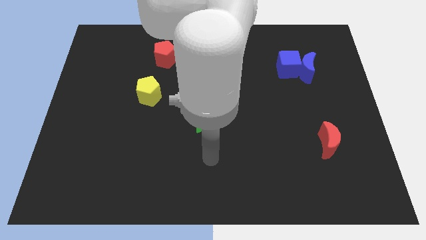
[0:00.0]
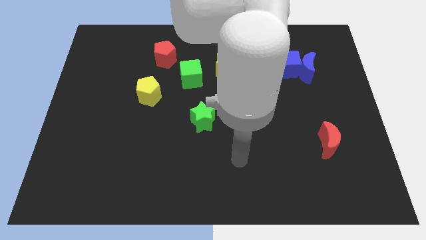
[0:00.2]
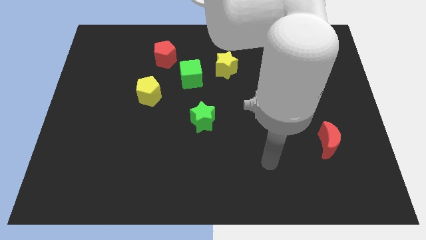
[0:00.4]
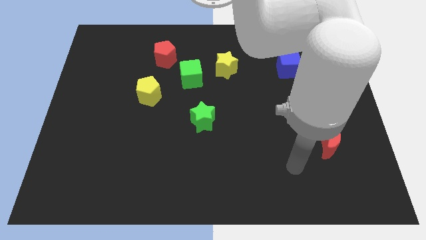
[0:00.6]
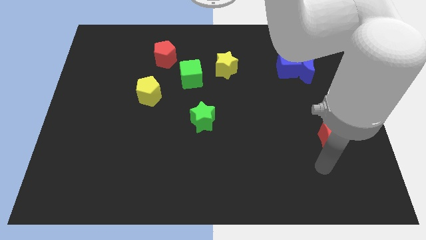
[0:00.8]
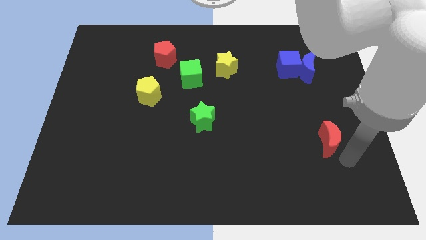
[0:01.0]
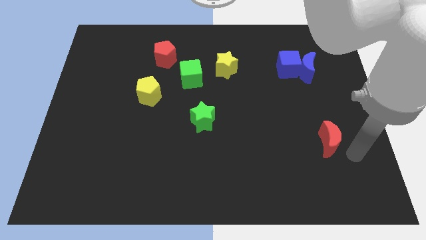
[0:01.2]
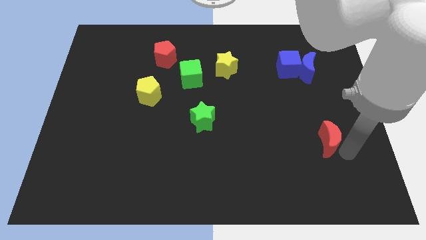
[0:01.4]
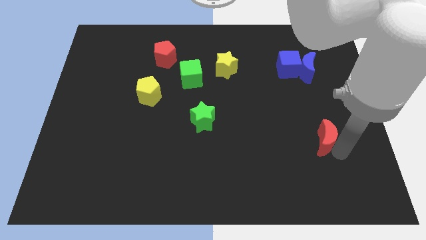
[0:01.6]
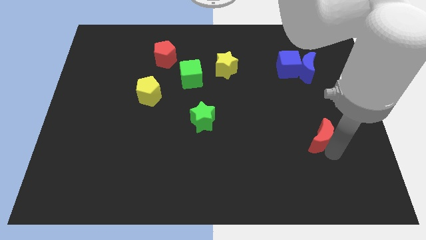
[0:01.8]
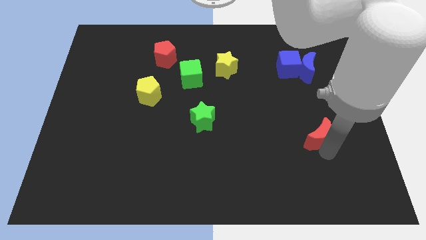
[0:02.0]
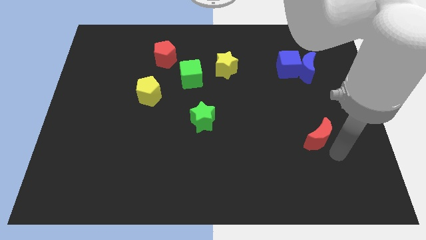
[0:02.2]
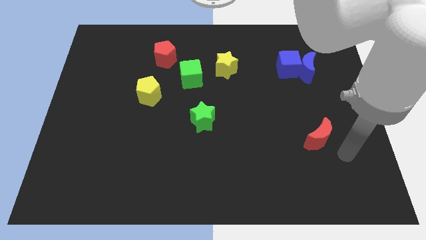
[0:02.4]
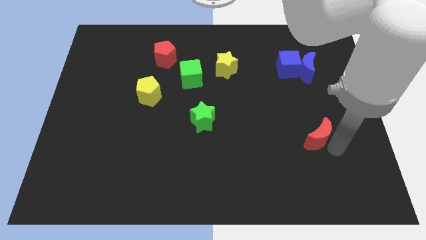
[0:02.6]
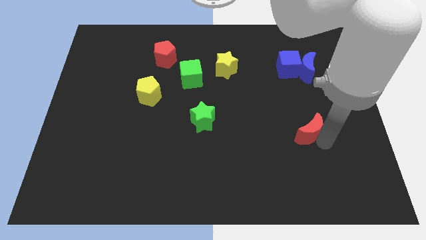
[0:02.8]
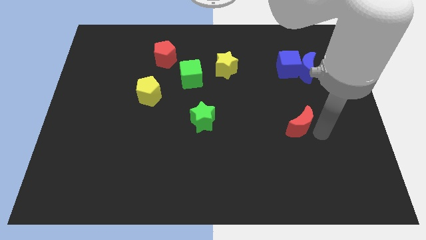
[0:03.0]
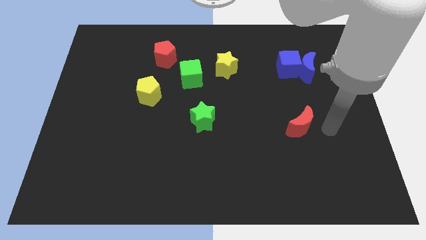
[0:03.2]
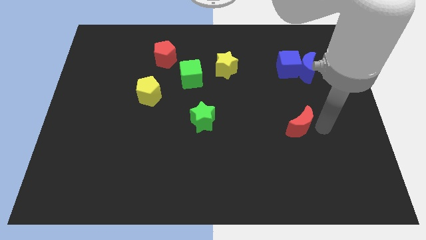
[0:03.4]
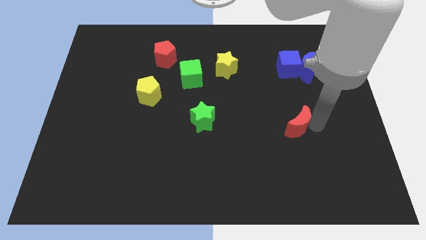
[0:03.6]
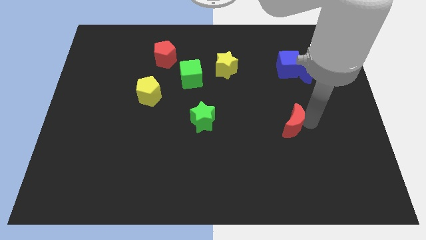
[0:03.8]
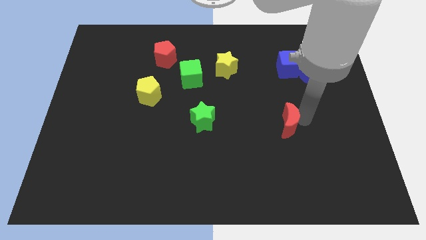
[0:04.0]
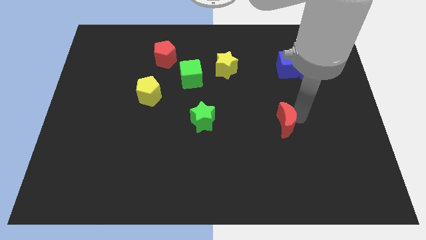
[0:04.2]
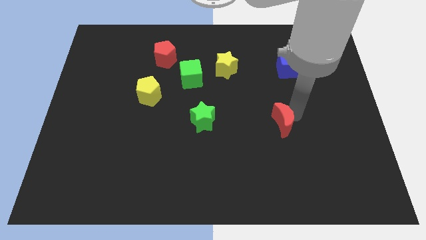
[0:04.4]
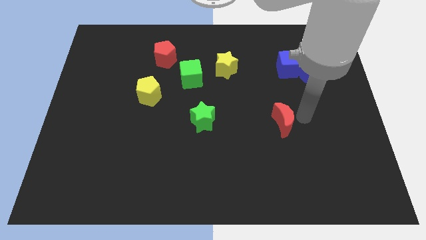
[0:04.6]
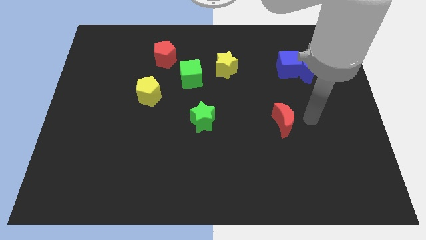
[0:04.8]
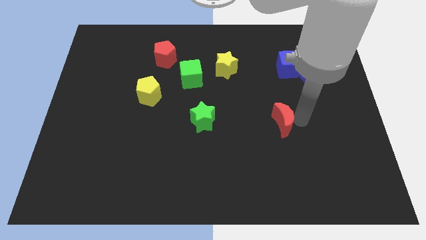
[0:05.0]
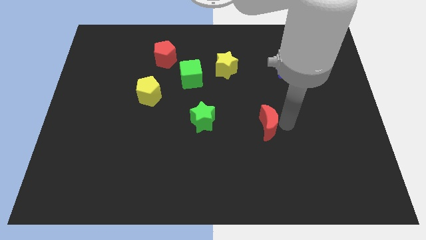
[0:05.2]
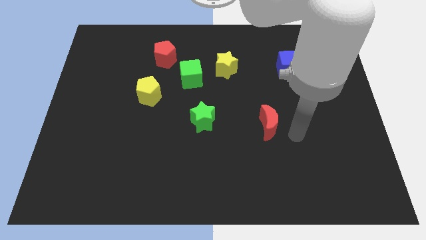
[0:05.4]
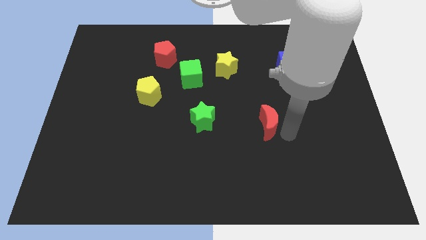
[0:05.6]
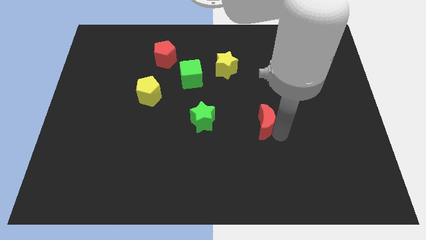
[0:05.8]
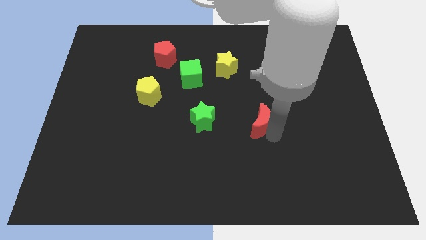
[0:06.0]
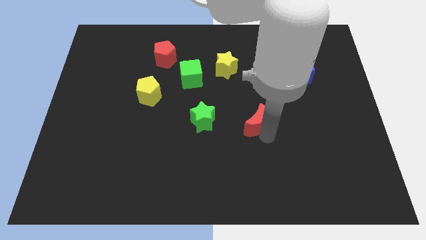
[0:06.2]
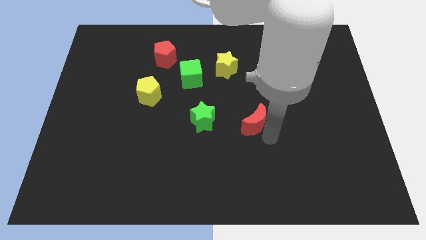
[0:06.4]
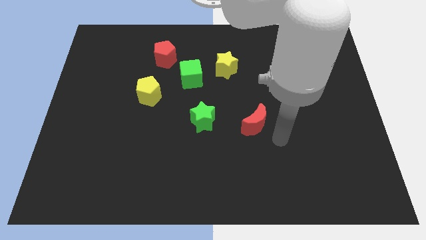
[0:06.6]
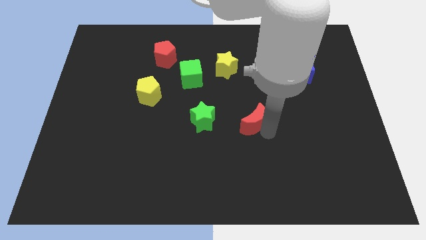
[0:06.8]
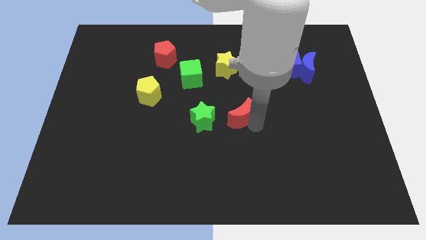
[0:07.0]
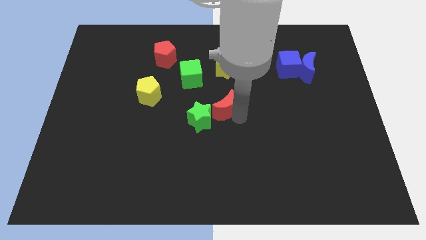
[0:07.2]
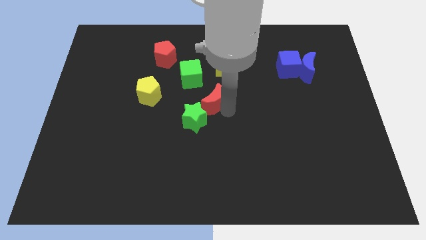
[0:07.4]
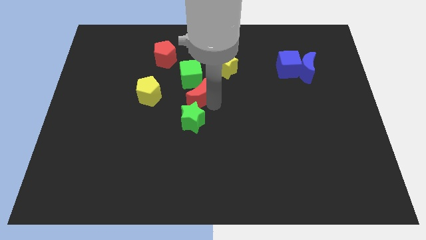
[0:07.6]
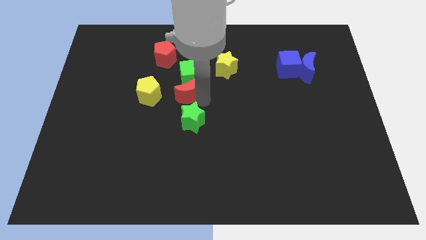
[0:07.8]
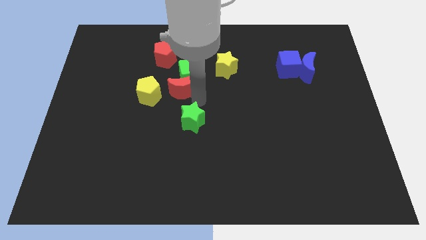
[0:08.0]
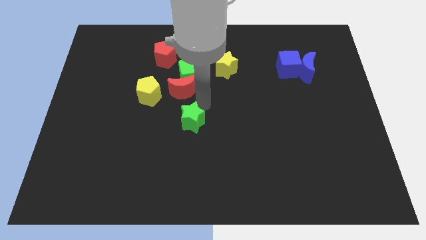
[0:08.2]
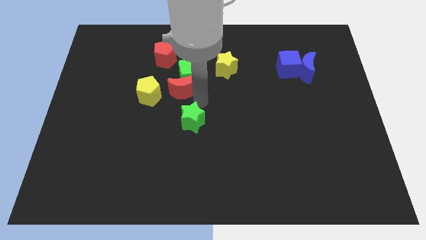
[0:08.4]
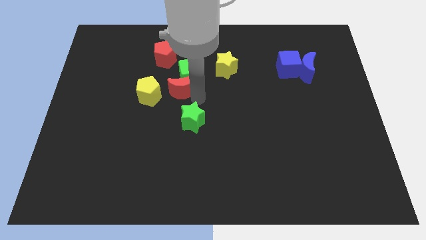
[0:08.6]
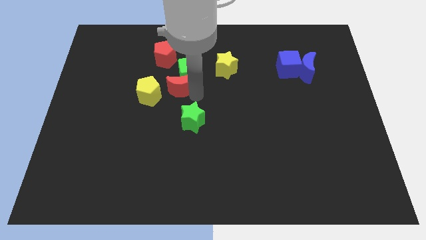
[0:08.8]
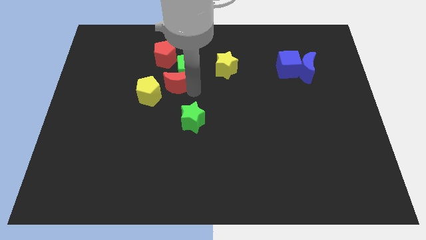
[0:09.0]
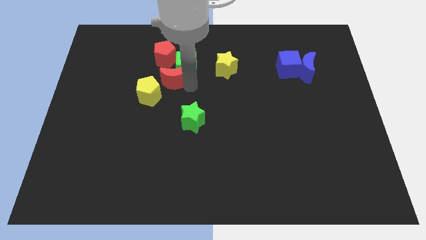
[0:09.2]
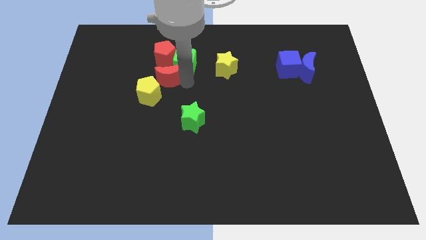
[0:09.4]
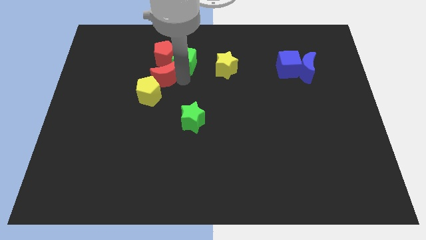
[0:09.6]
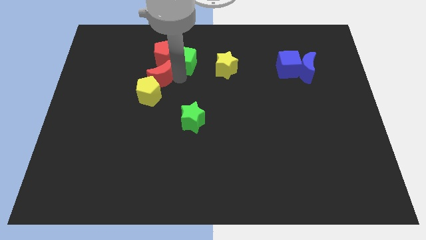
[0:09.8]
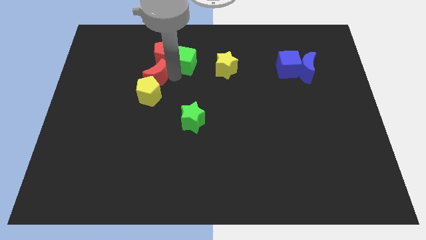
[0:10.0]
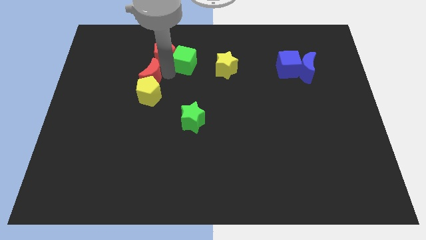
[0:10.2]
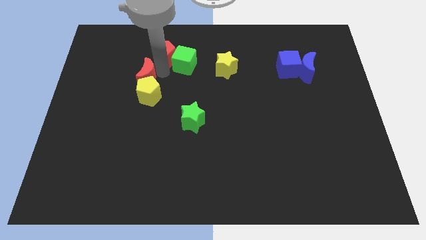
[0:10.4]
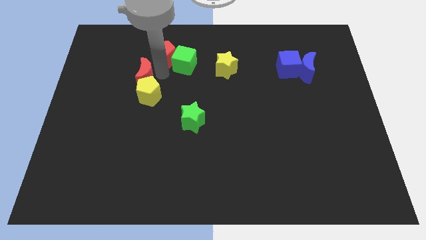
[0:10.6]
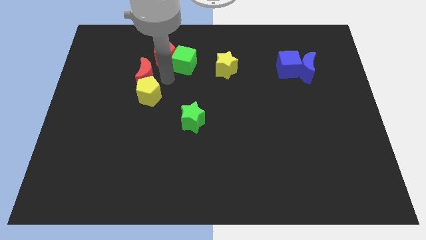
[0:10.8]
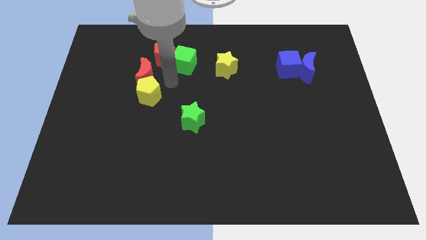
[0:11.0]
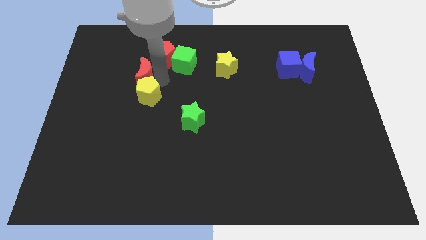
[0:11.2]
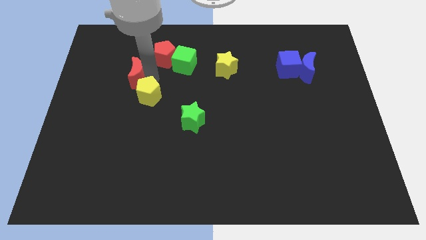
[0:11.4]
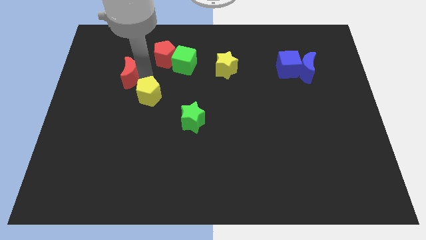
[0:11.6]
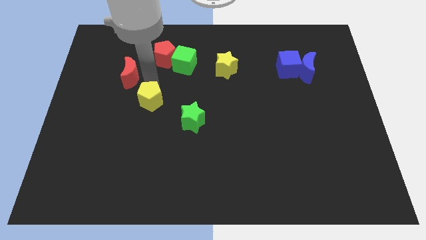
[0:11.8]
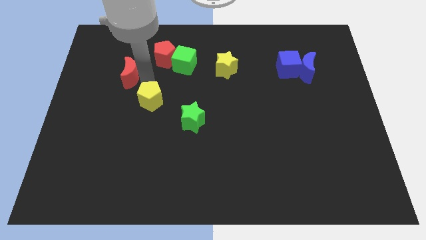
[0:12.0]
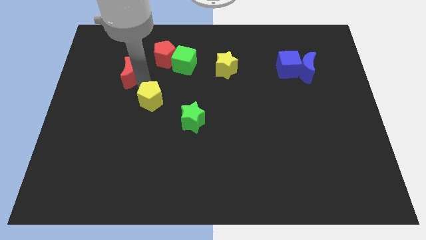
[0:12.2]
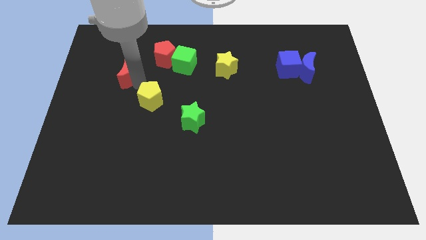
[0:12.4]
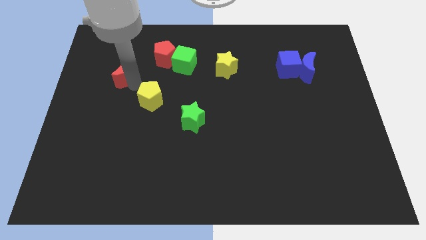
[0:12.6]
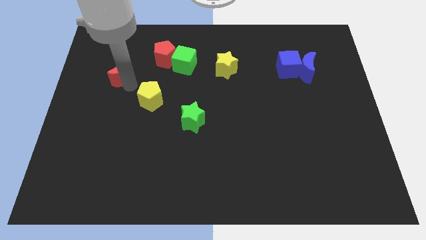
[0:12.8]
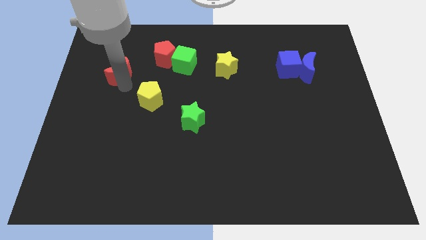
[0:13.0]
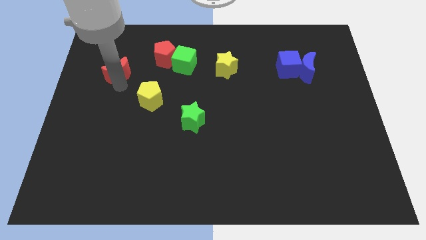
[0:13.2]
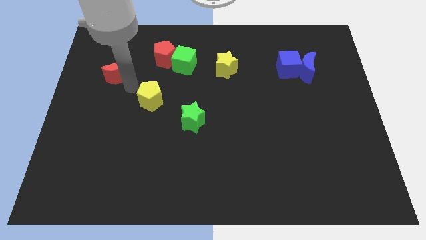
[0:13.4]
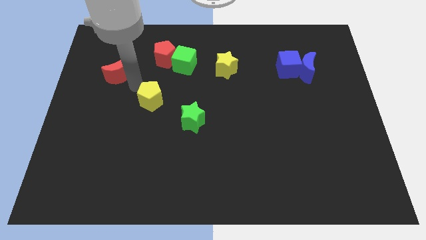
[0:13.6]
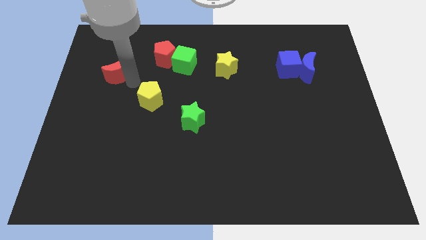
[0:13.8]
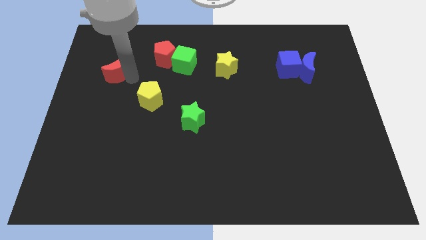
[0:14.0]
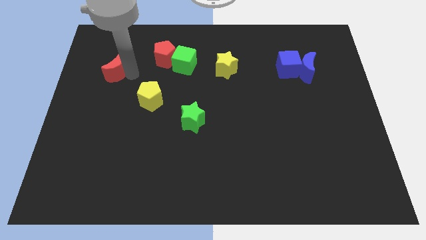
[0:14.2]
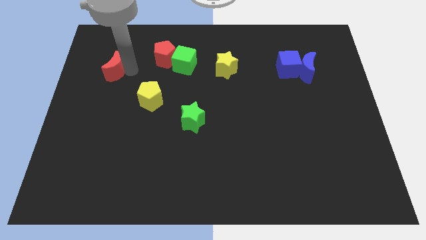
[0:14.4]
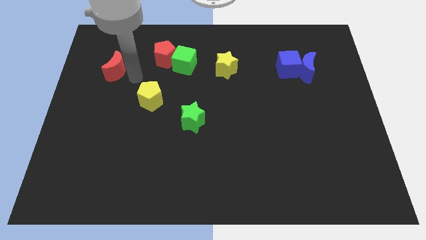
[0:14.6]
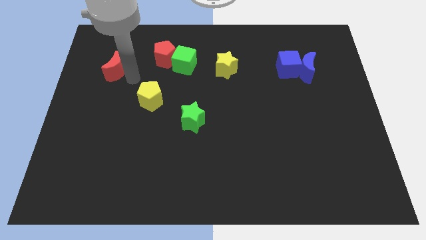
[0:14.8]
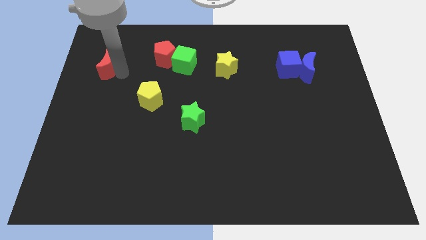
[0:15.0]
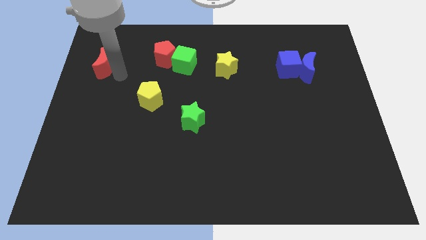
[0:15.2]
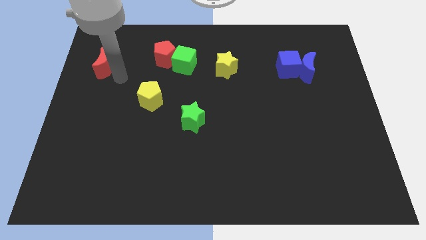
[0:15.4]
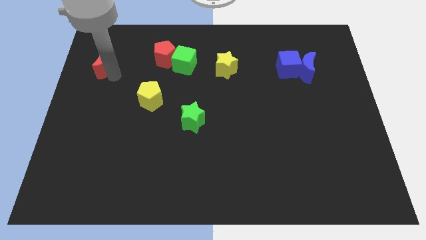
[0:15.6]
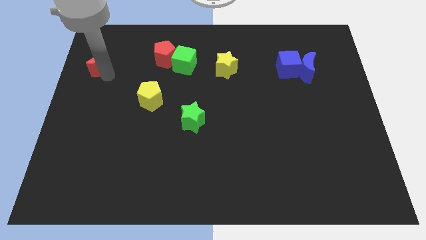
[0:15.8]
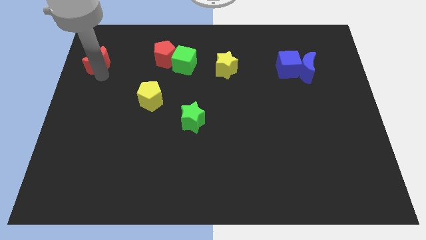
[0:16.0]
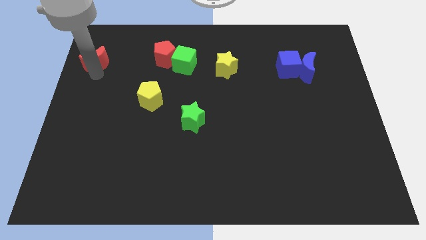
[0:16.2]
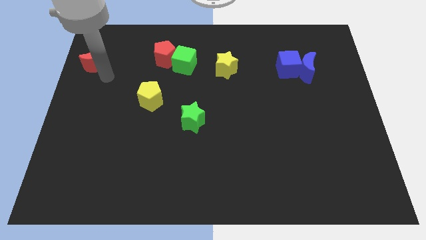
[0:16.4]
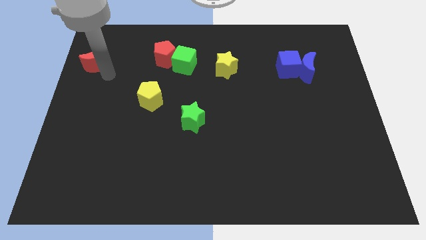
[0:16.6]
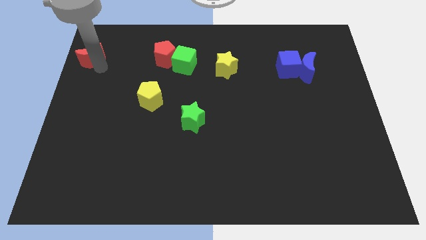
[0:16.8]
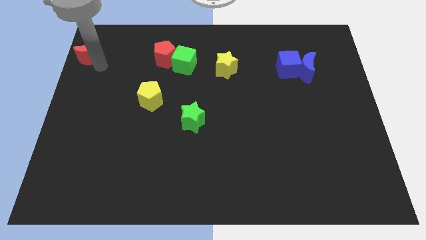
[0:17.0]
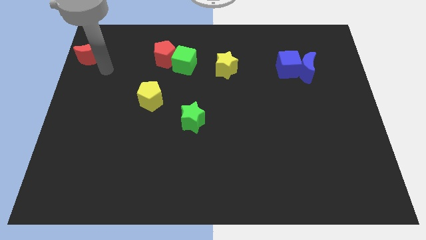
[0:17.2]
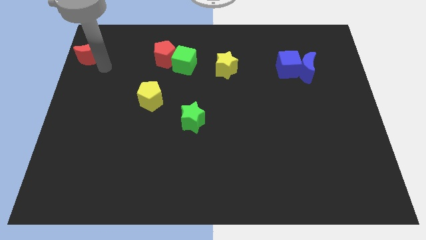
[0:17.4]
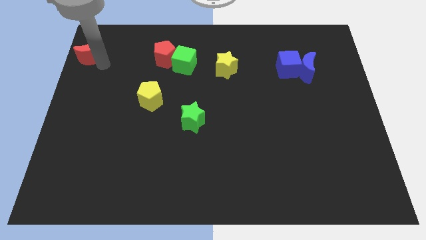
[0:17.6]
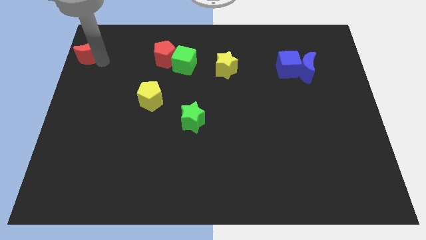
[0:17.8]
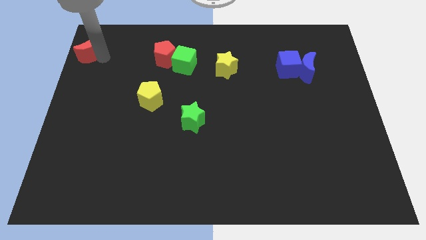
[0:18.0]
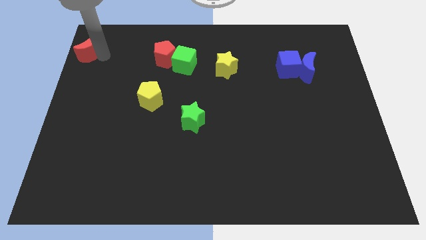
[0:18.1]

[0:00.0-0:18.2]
push the red moon to the top left corner
